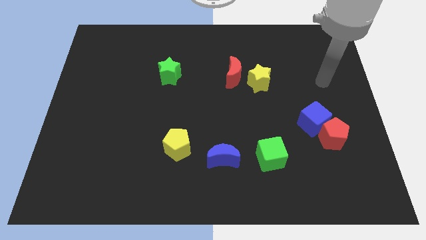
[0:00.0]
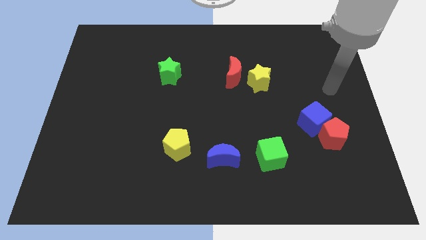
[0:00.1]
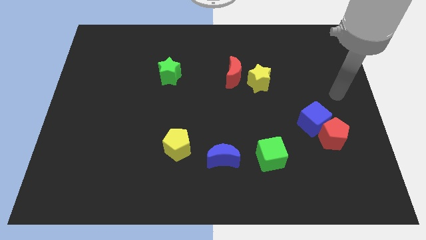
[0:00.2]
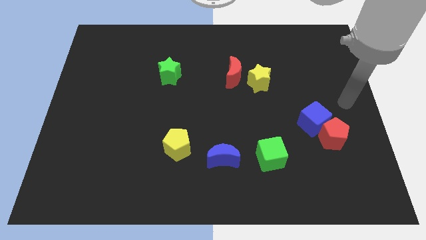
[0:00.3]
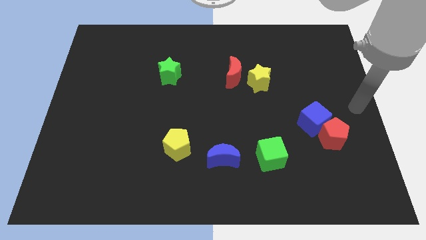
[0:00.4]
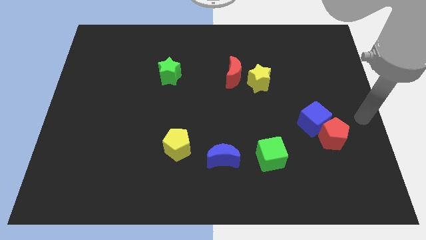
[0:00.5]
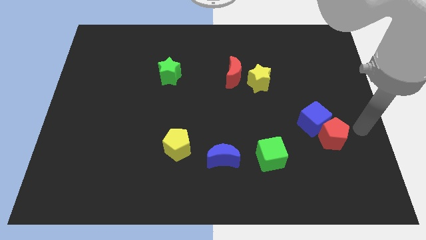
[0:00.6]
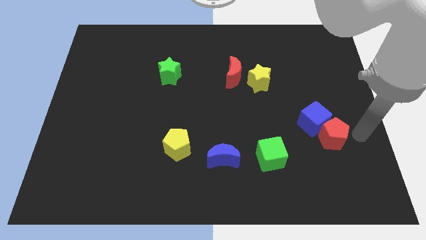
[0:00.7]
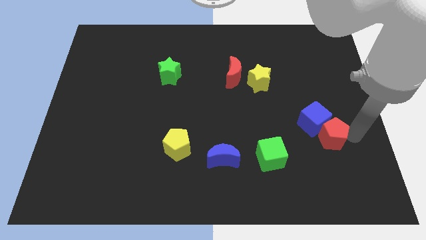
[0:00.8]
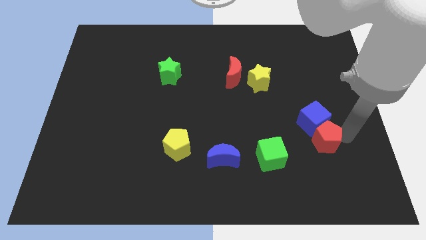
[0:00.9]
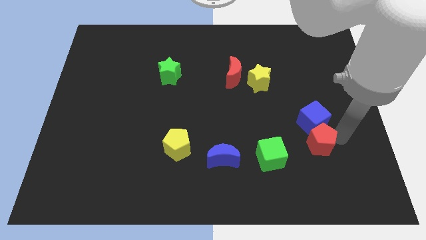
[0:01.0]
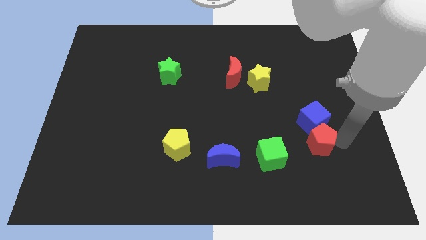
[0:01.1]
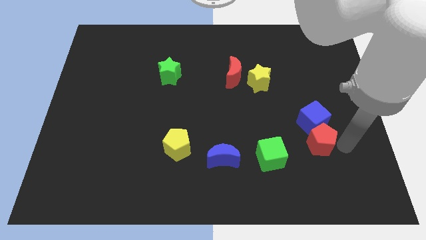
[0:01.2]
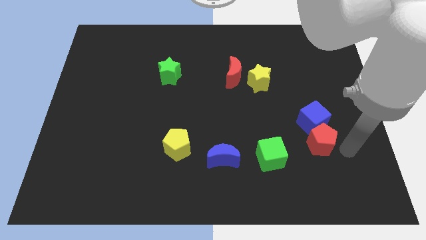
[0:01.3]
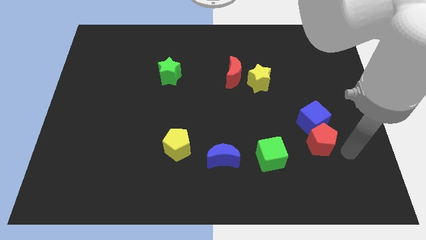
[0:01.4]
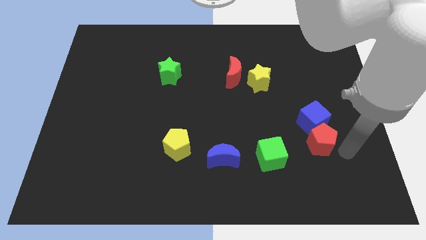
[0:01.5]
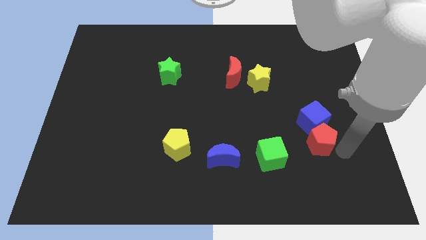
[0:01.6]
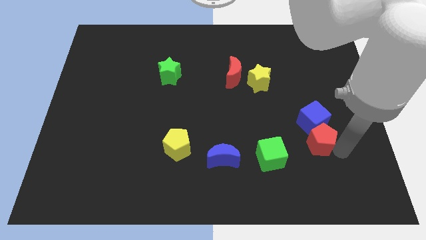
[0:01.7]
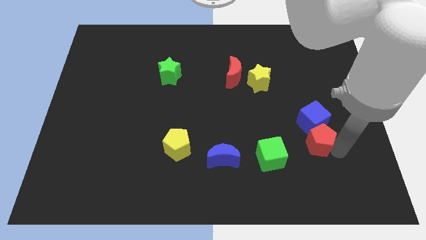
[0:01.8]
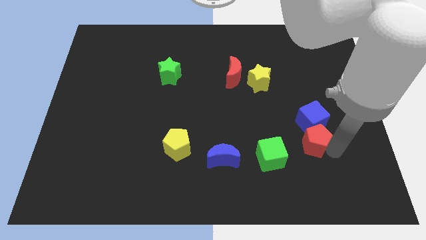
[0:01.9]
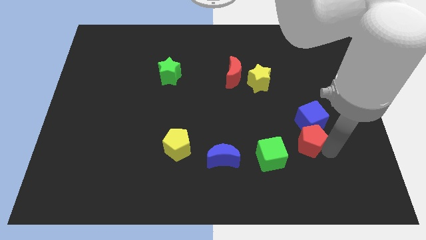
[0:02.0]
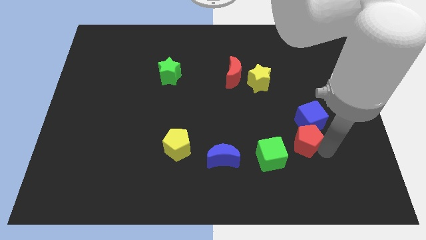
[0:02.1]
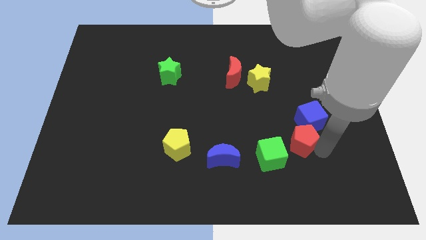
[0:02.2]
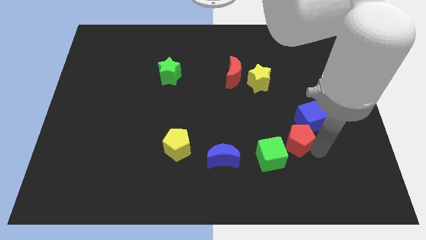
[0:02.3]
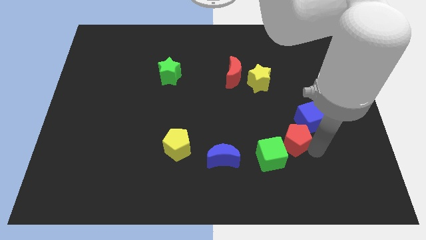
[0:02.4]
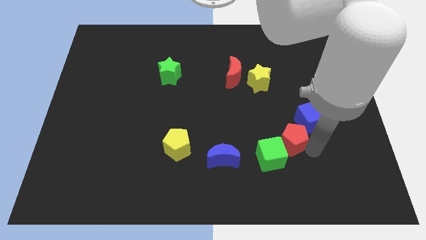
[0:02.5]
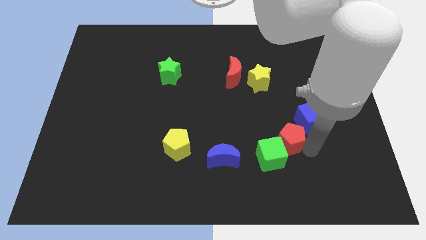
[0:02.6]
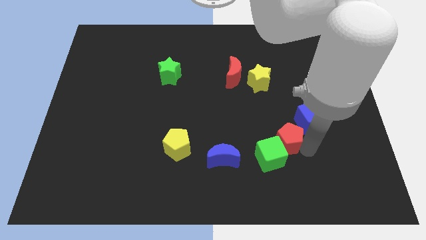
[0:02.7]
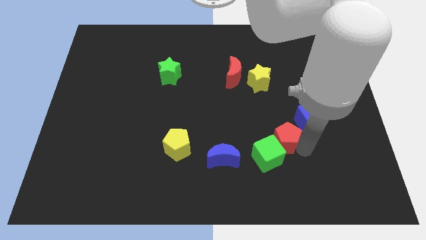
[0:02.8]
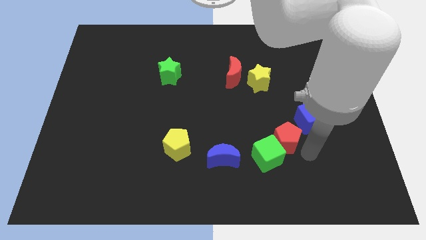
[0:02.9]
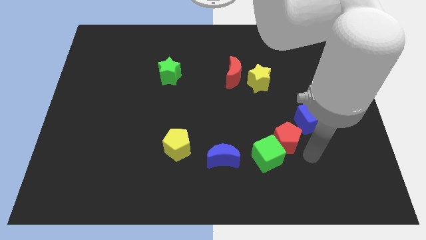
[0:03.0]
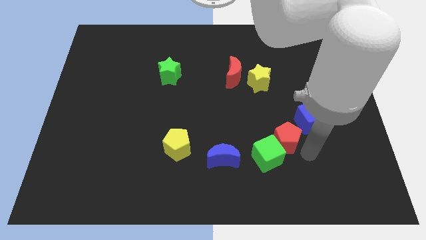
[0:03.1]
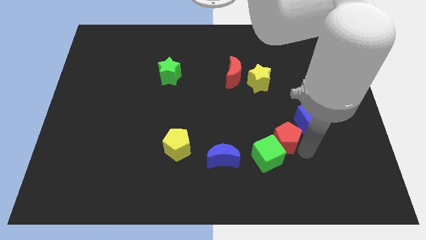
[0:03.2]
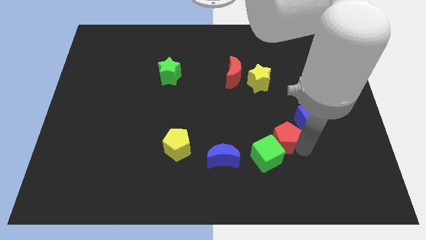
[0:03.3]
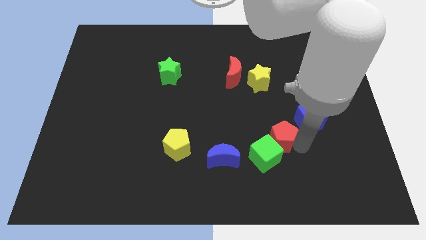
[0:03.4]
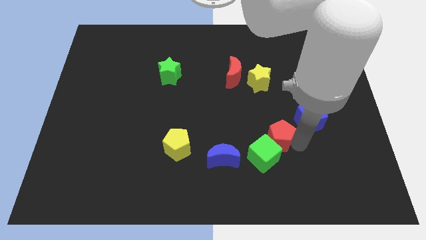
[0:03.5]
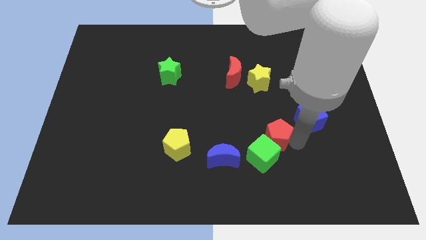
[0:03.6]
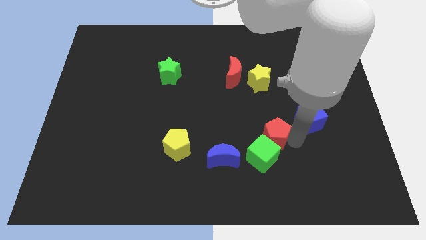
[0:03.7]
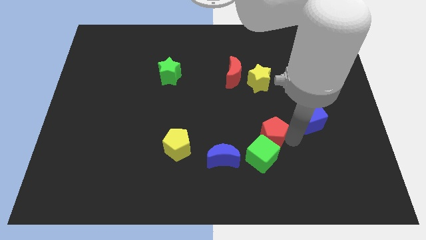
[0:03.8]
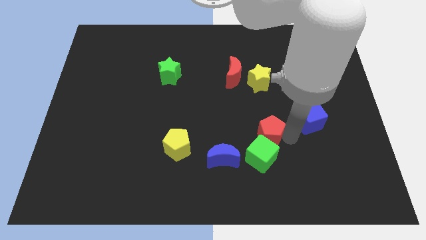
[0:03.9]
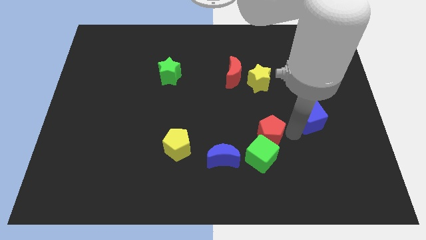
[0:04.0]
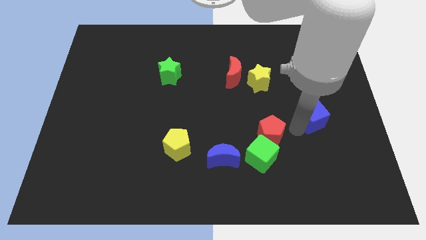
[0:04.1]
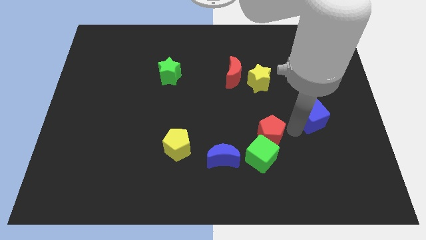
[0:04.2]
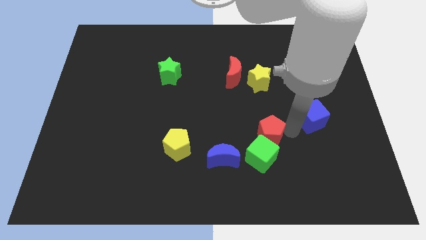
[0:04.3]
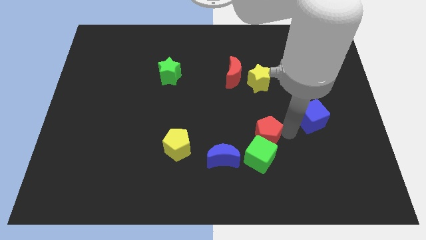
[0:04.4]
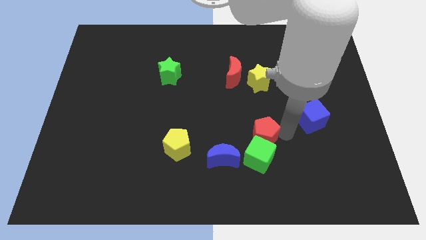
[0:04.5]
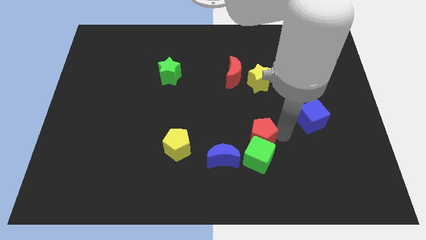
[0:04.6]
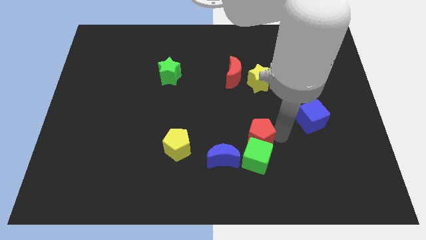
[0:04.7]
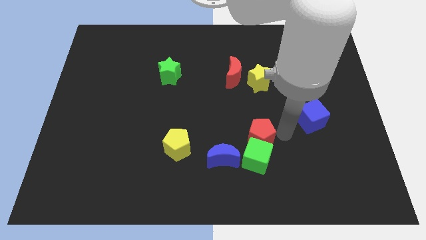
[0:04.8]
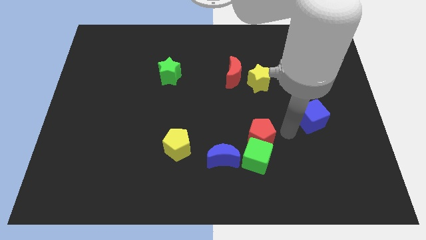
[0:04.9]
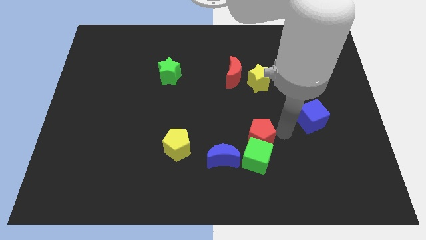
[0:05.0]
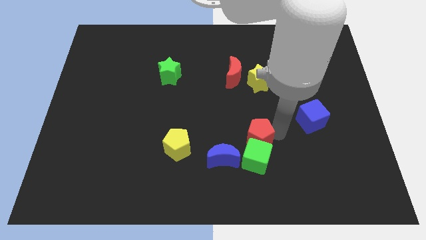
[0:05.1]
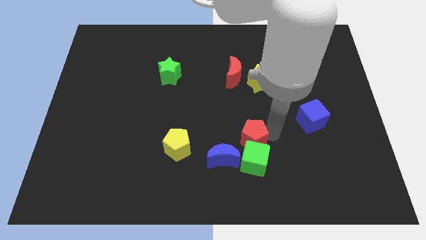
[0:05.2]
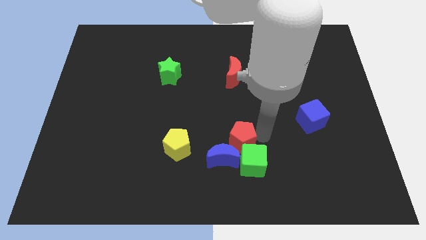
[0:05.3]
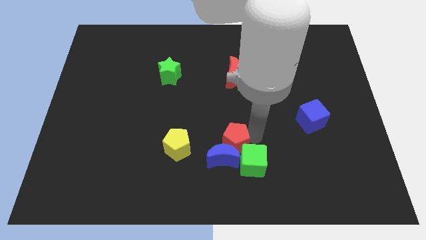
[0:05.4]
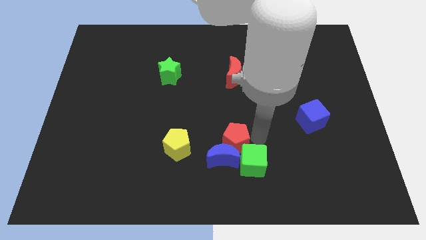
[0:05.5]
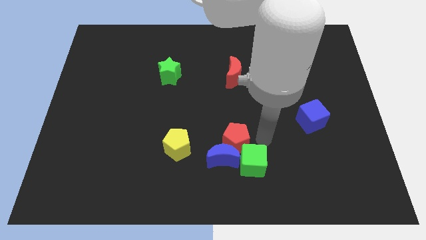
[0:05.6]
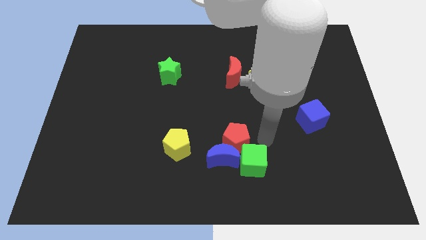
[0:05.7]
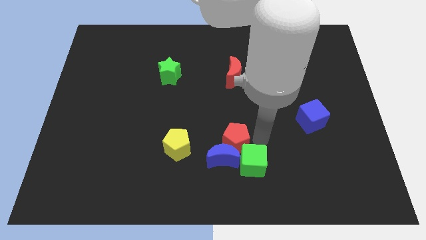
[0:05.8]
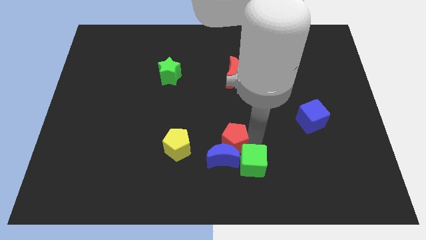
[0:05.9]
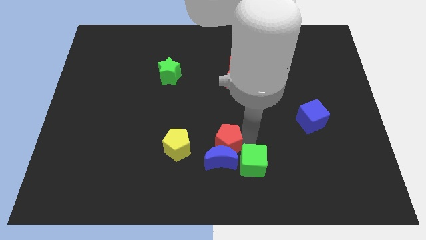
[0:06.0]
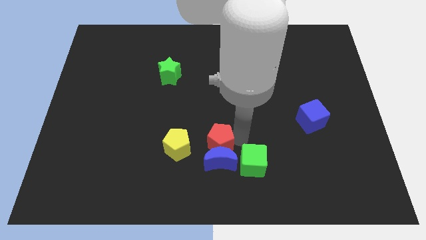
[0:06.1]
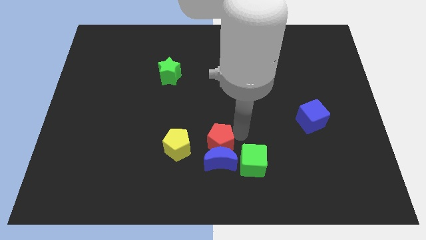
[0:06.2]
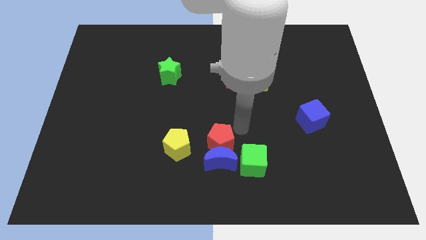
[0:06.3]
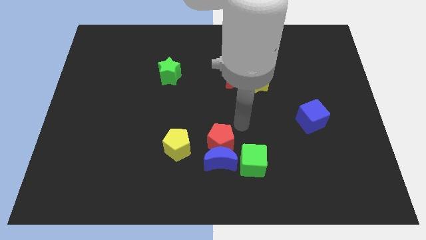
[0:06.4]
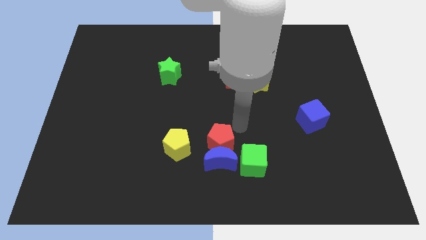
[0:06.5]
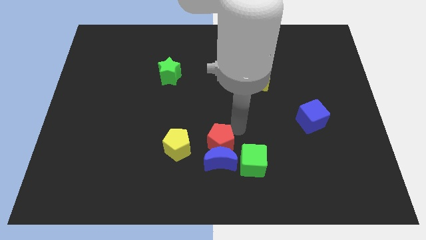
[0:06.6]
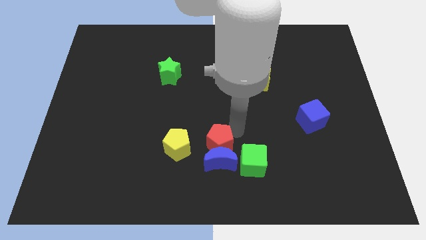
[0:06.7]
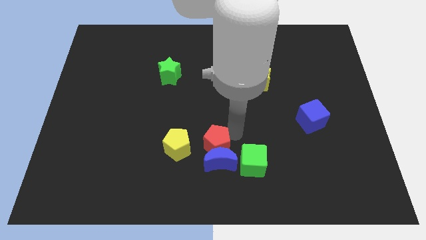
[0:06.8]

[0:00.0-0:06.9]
slide the red pentagon left of the green cube
